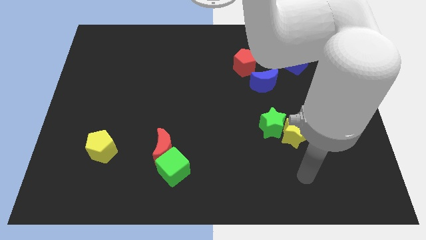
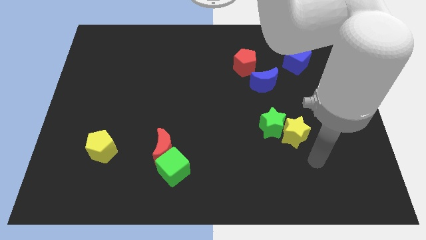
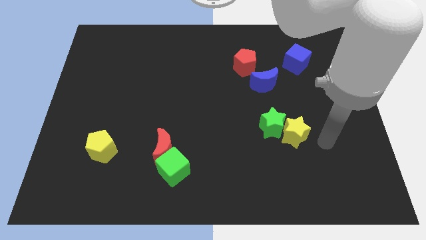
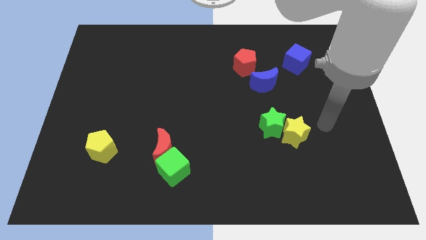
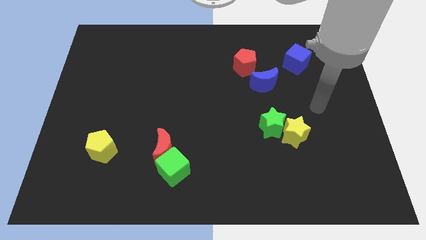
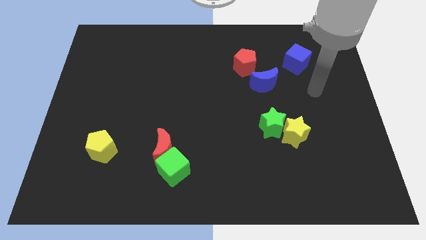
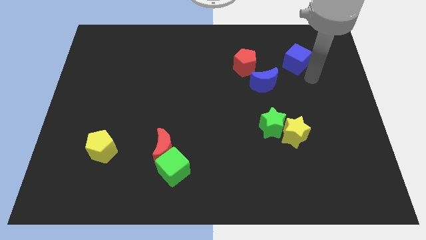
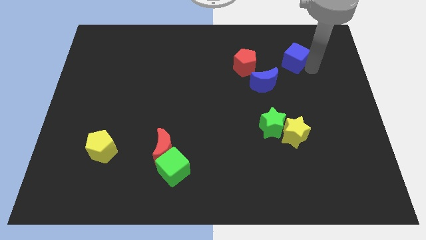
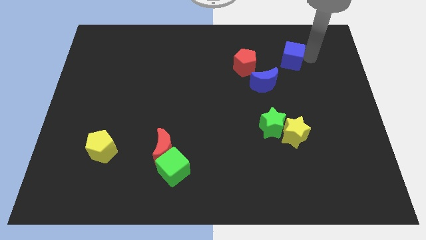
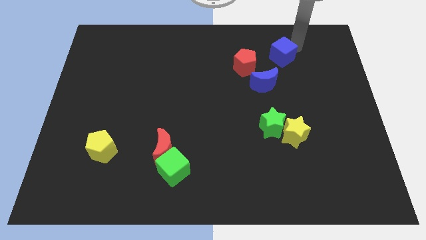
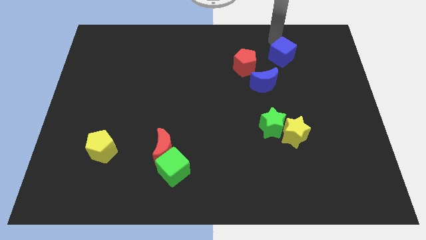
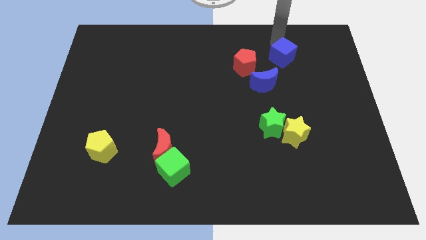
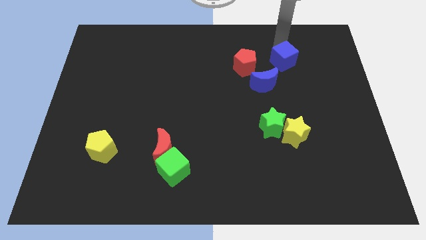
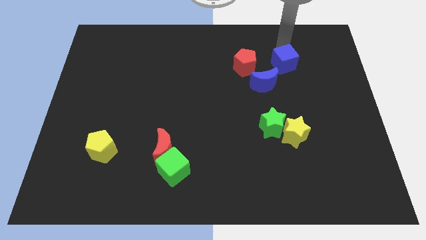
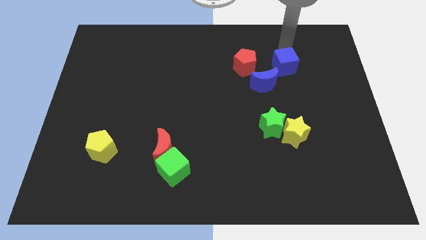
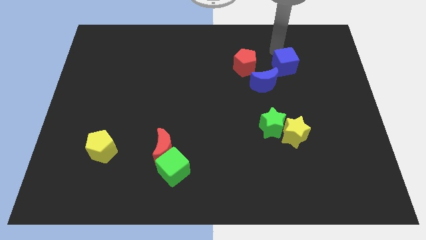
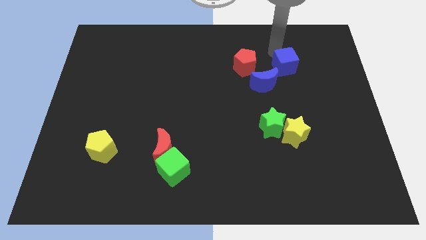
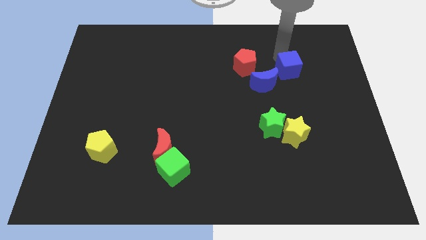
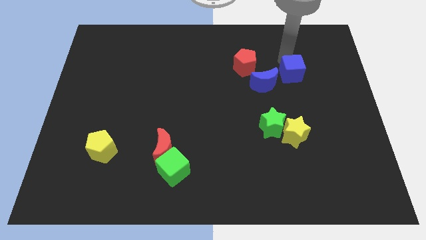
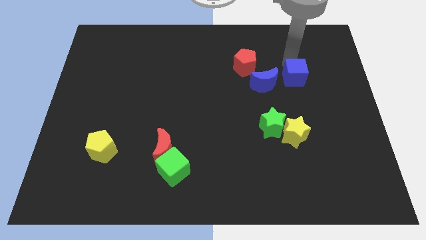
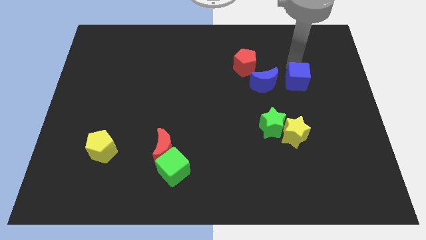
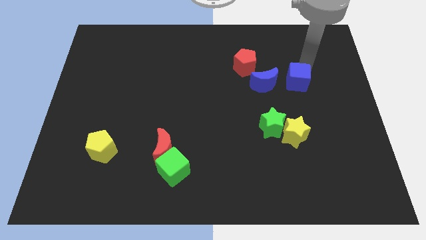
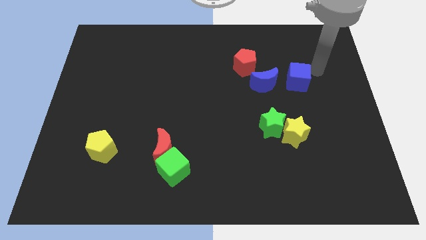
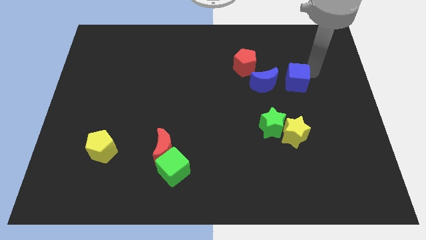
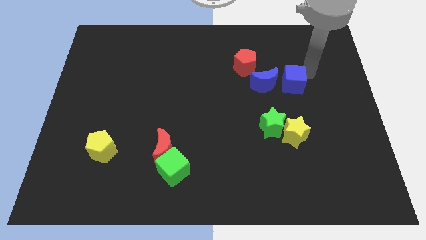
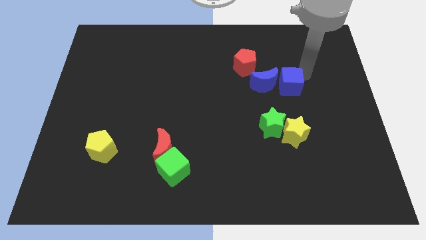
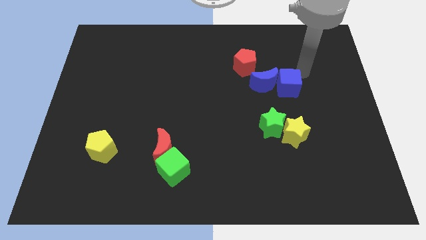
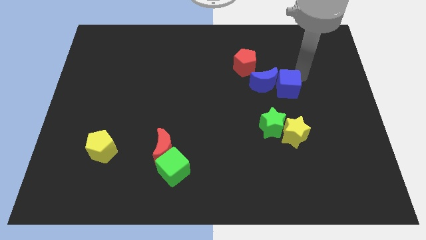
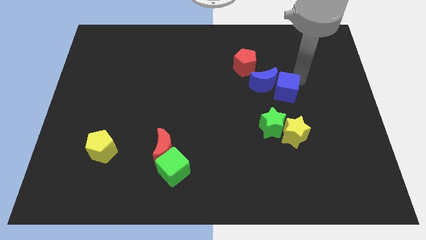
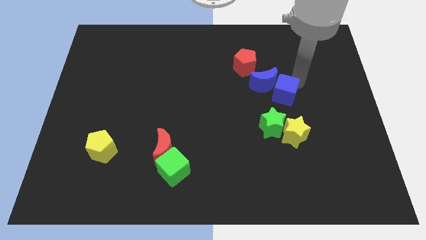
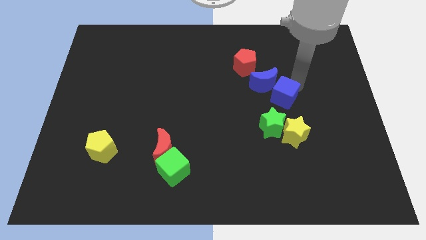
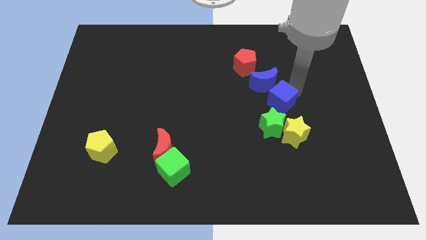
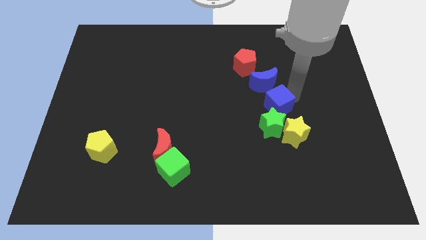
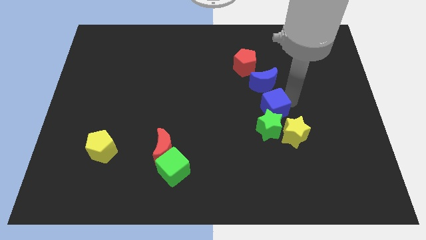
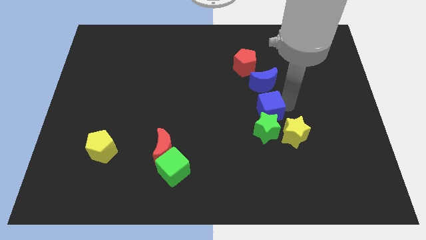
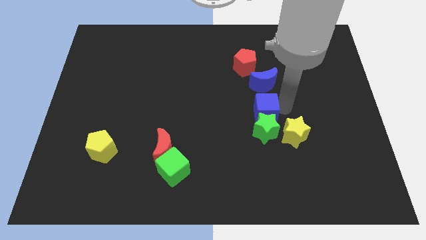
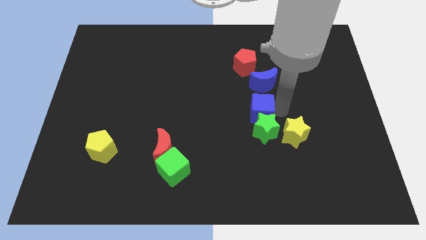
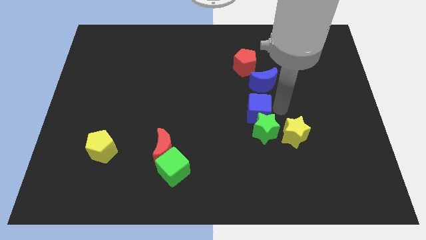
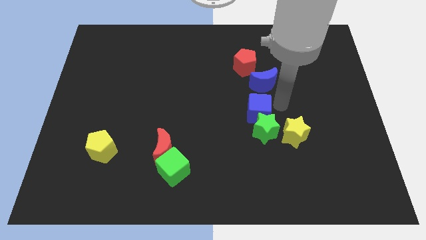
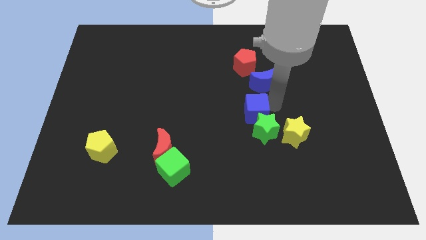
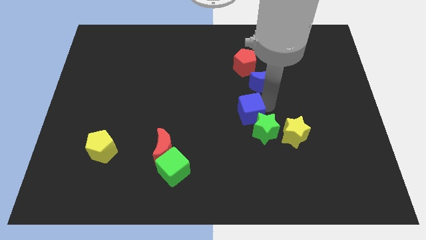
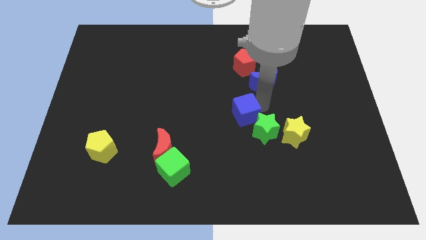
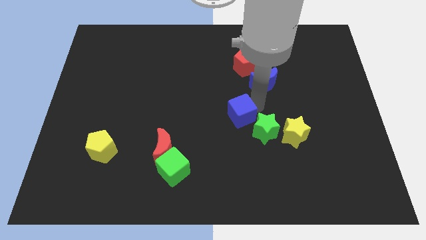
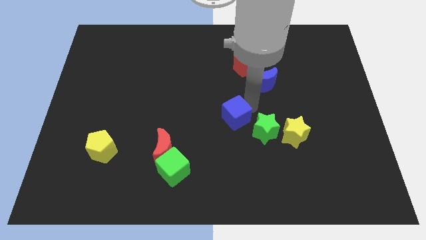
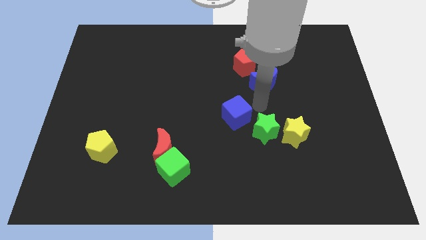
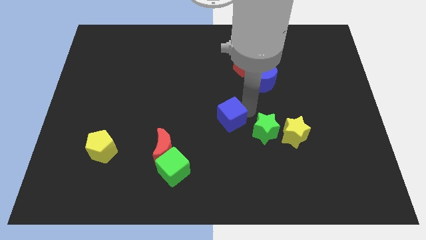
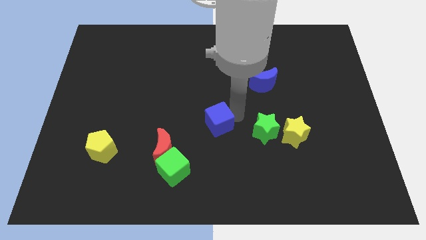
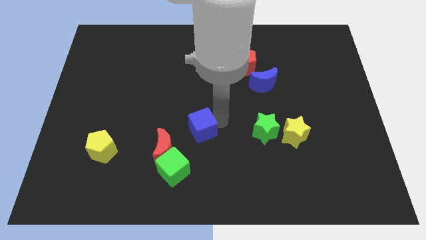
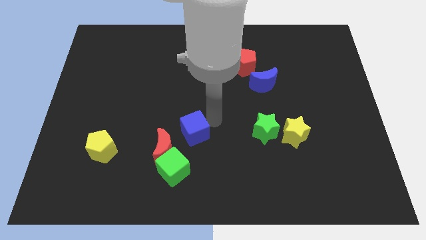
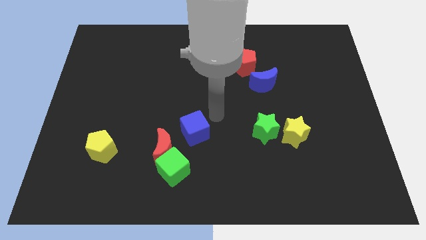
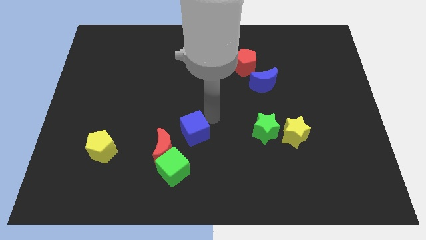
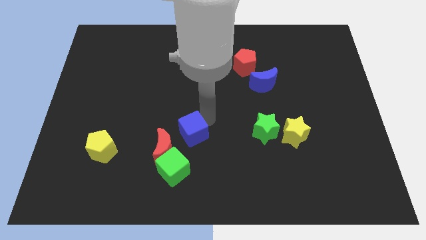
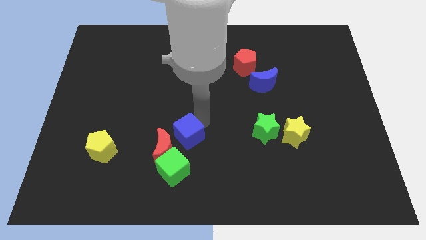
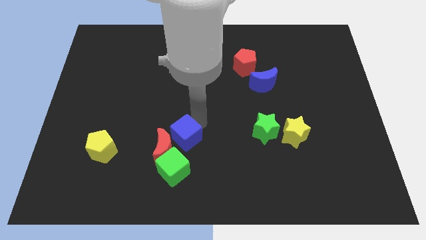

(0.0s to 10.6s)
put the blue cube close to the red moon

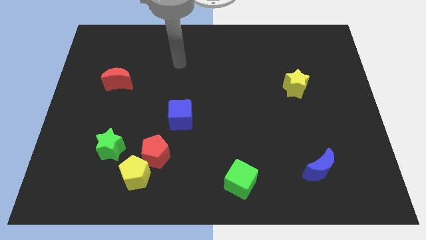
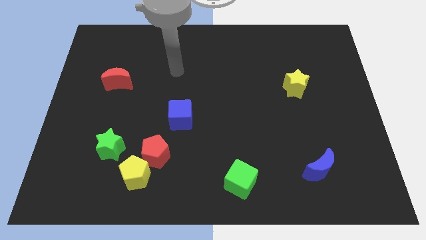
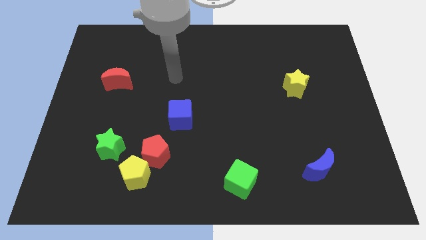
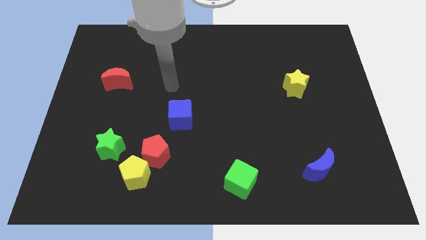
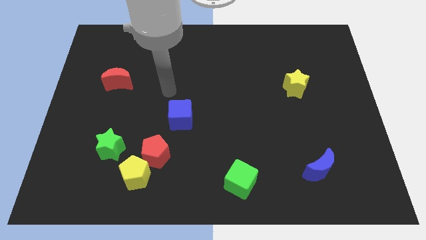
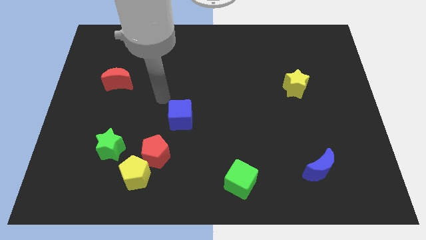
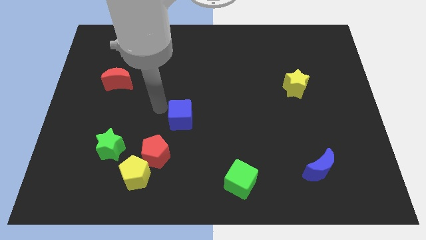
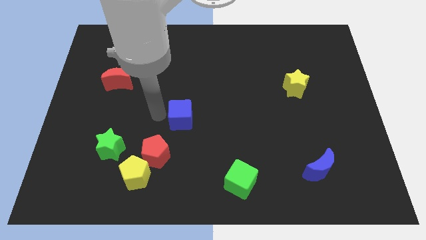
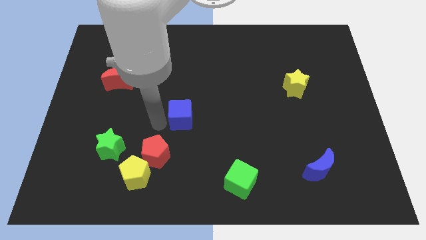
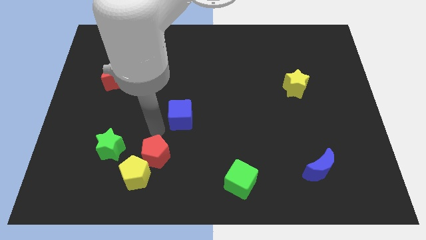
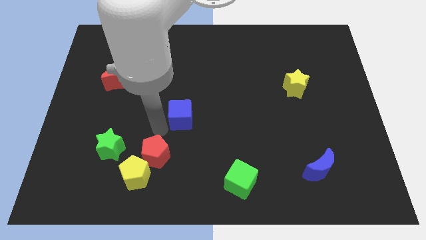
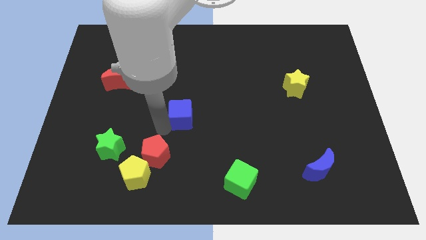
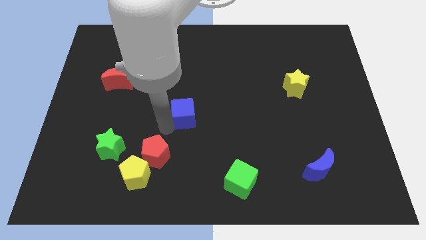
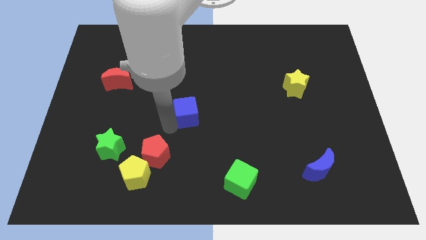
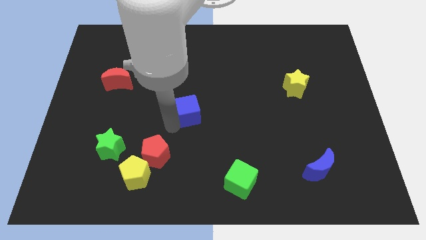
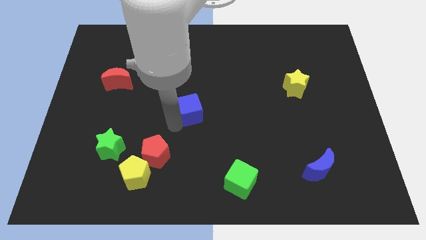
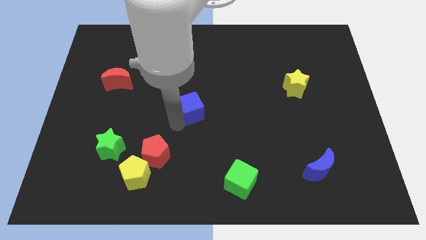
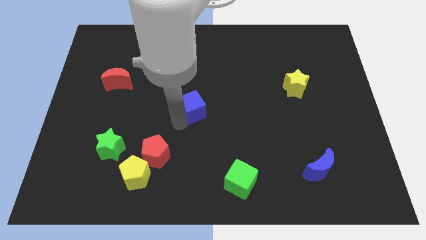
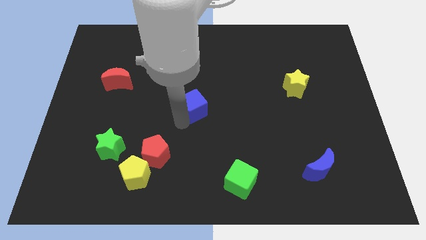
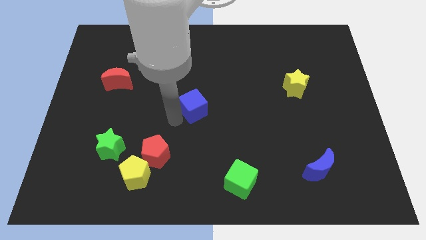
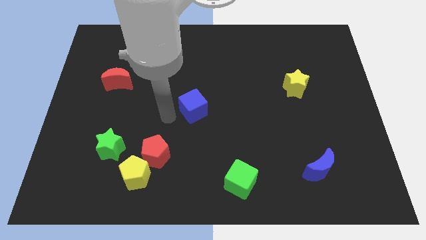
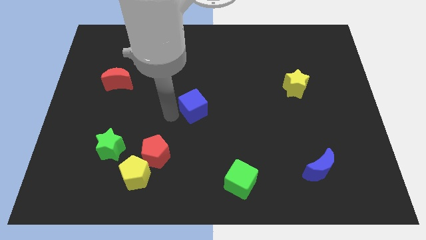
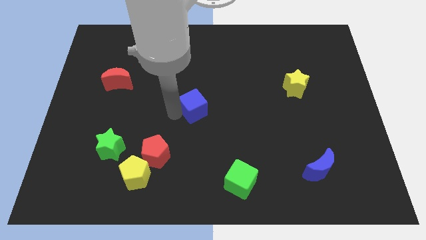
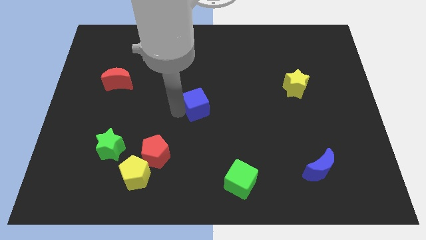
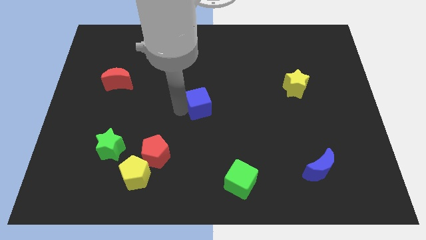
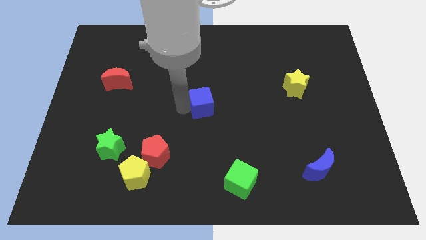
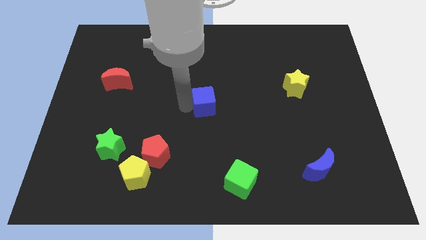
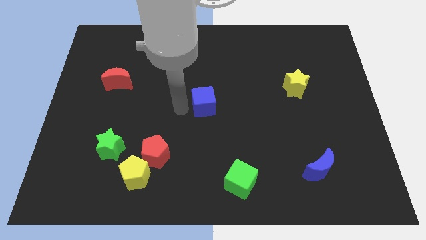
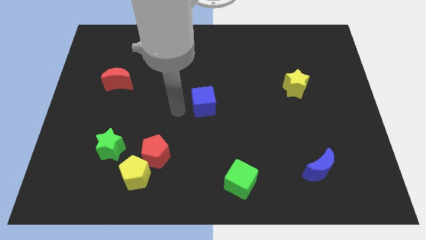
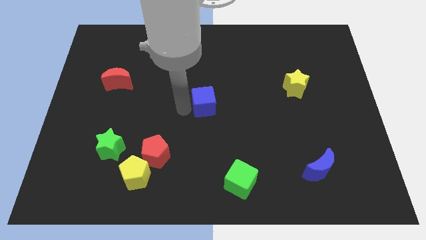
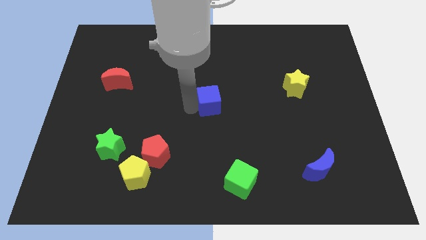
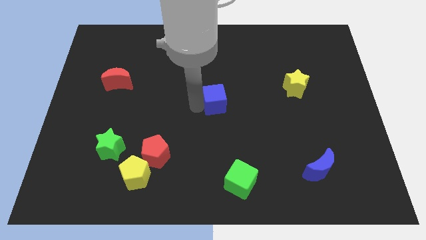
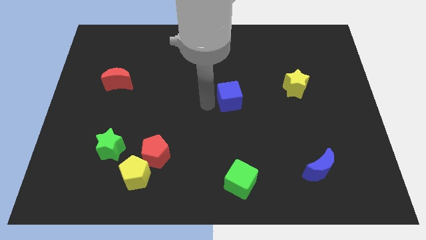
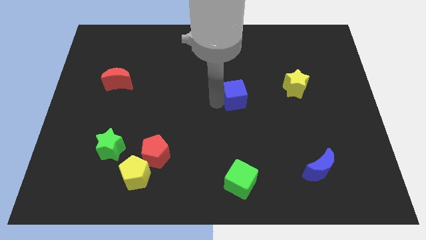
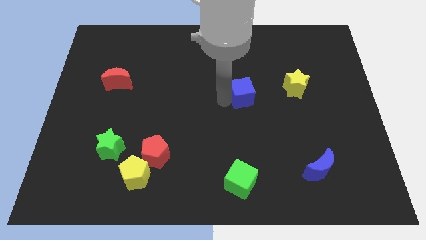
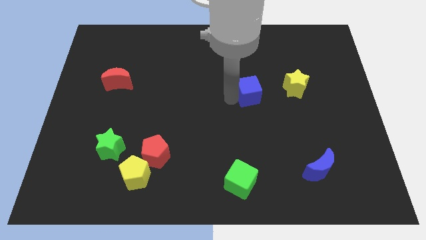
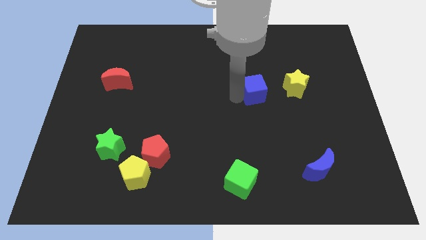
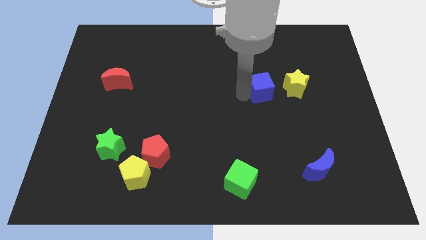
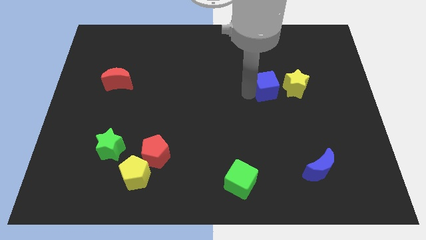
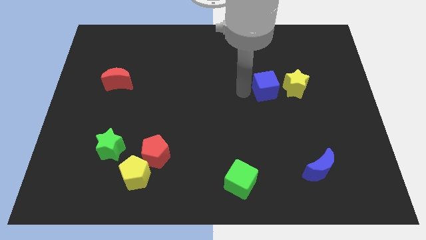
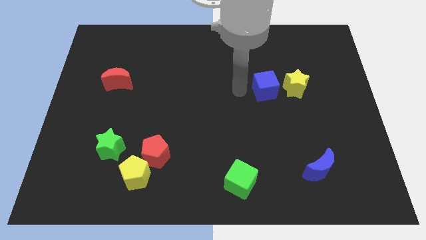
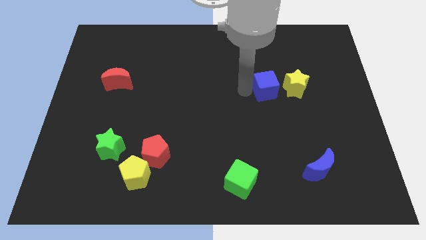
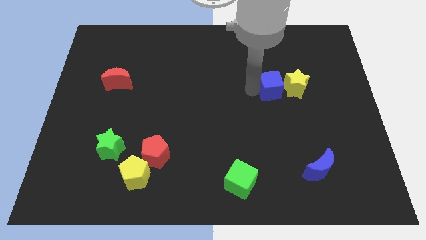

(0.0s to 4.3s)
push the blue cube to the yellow star
